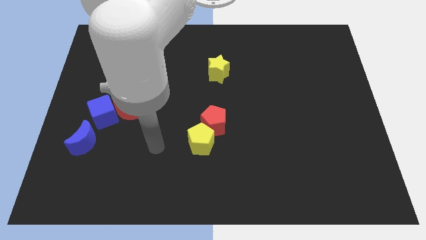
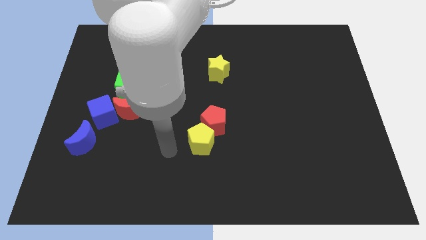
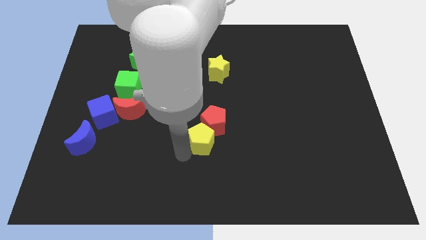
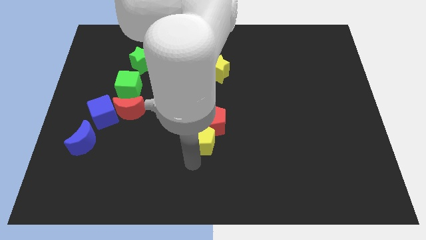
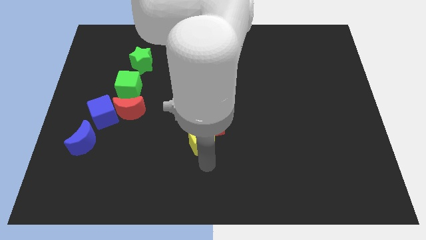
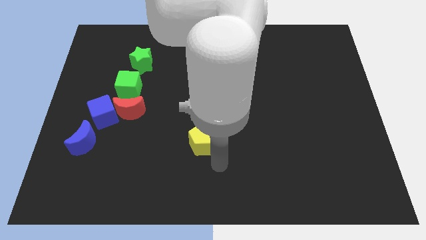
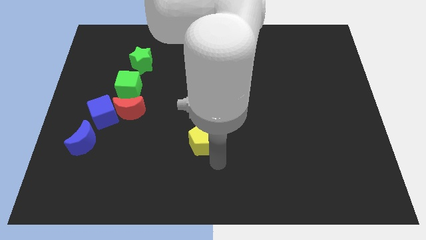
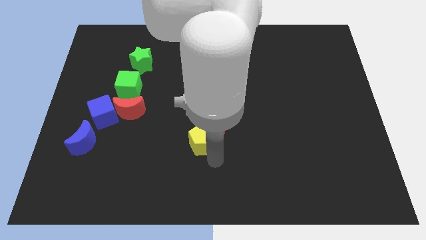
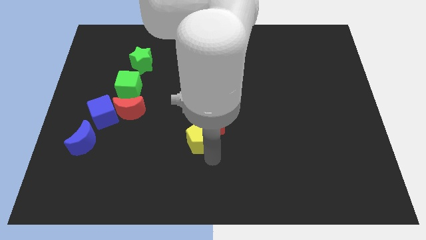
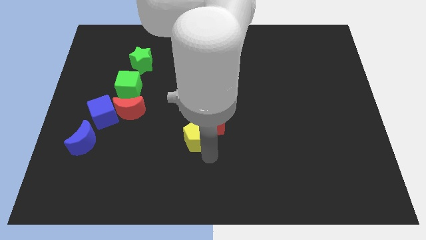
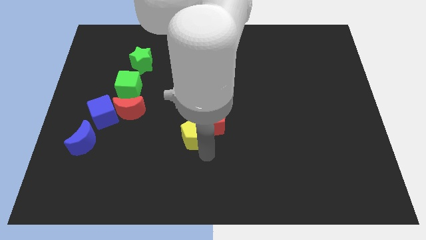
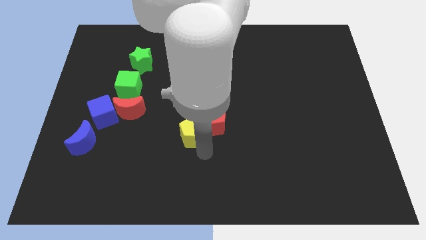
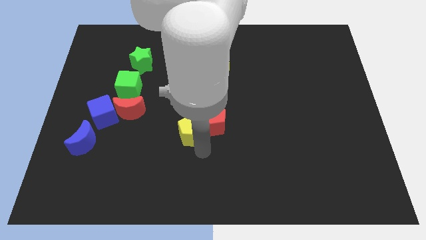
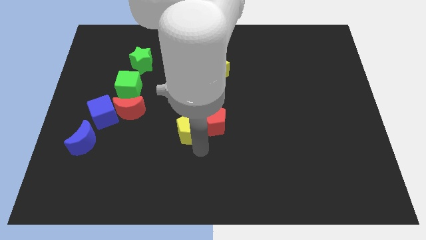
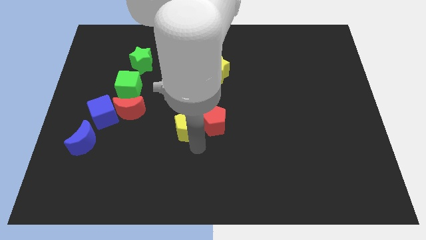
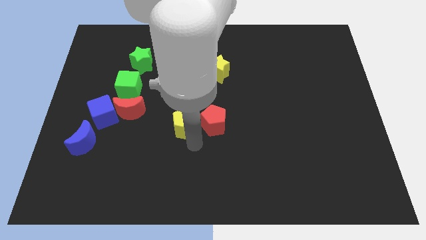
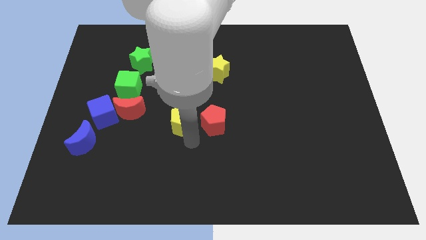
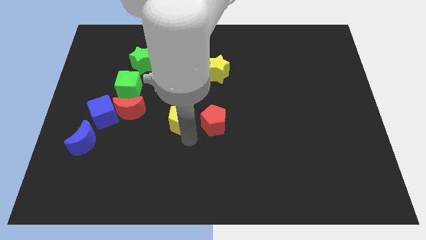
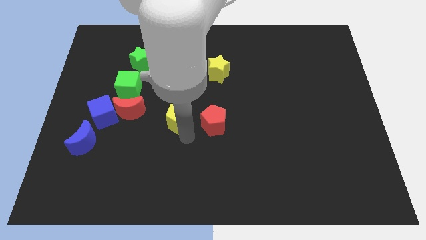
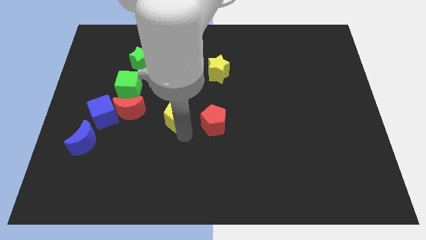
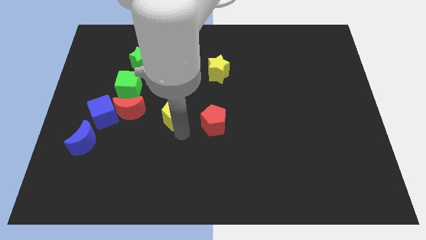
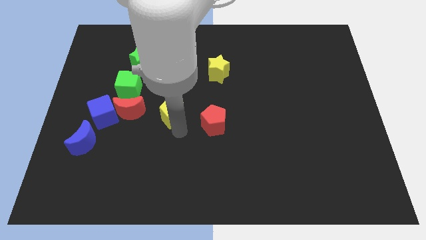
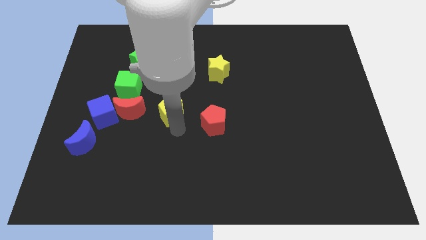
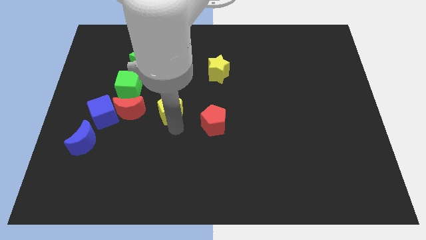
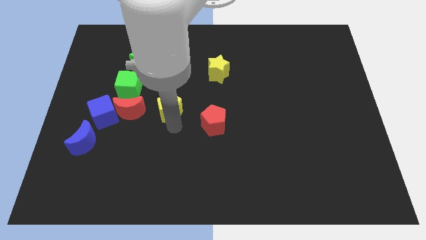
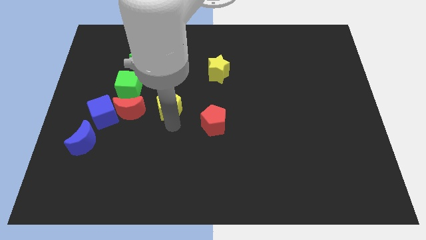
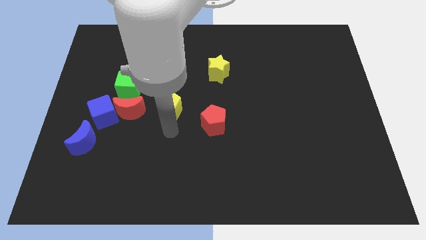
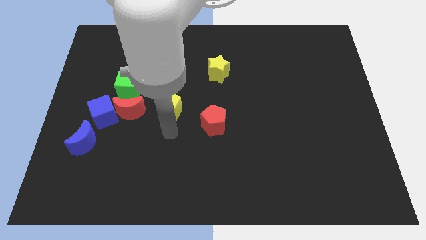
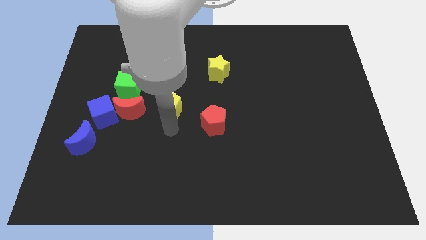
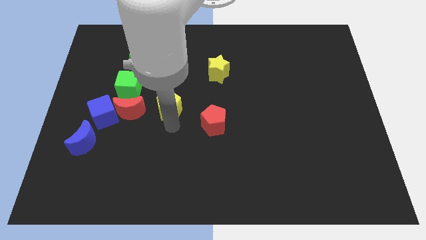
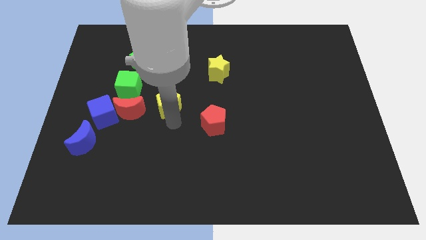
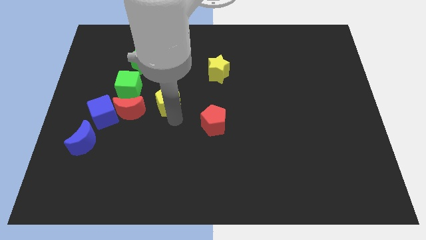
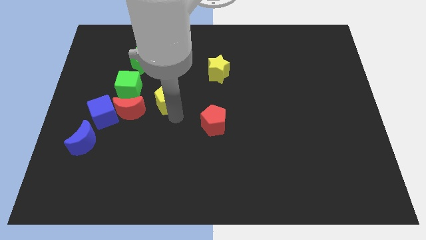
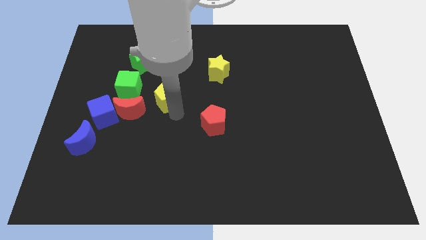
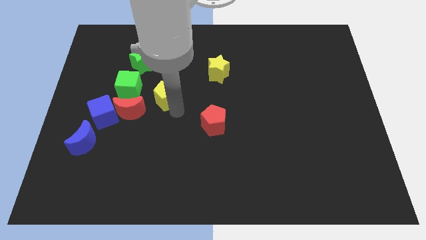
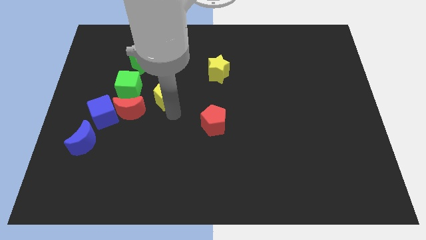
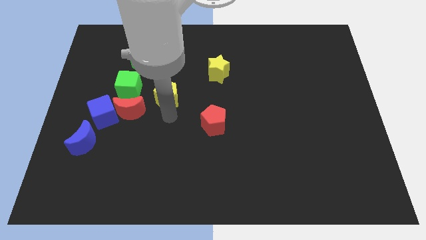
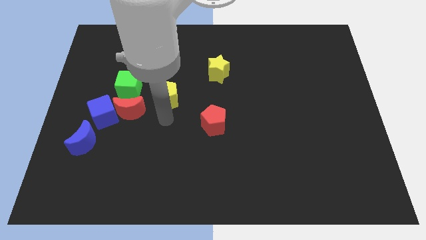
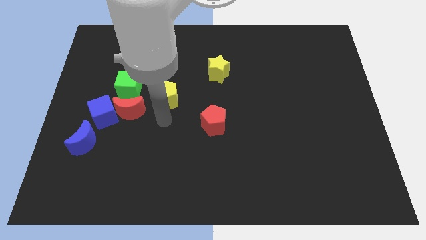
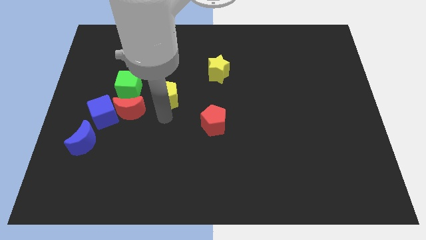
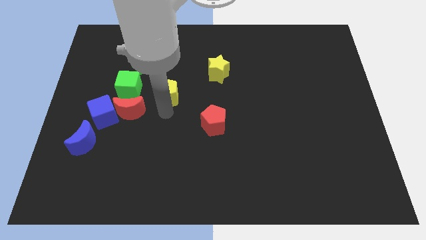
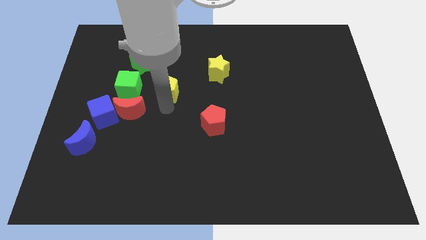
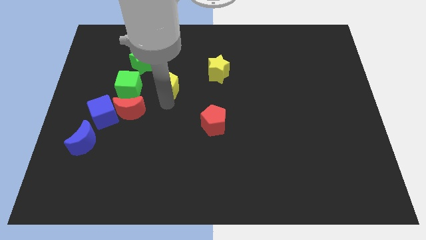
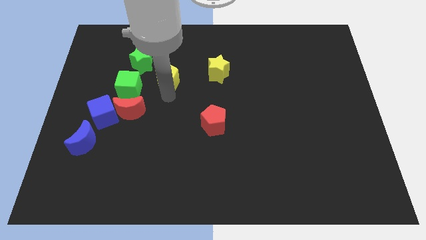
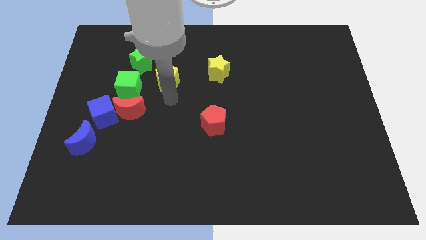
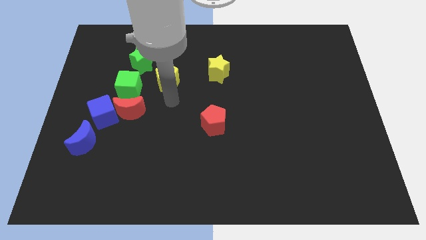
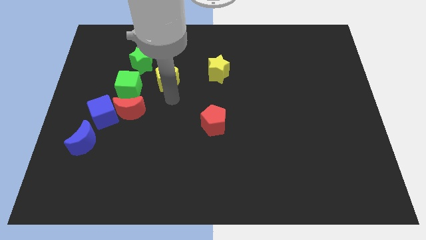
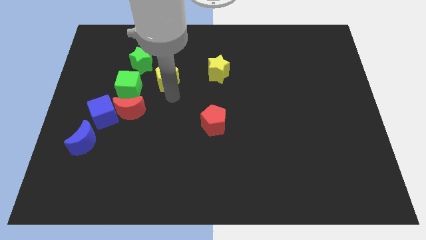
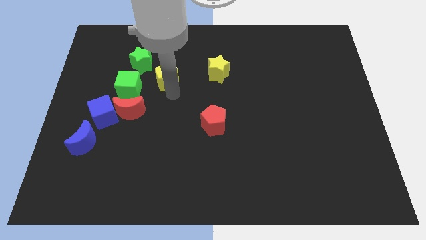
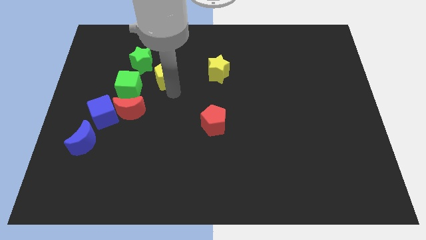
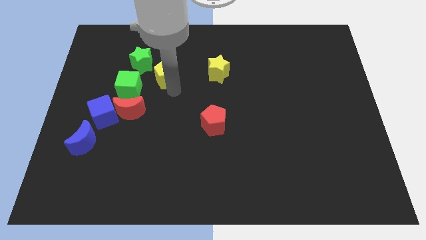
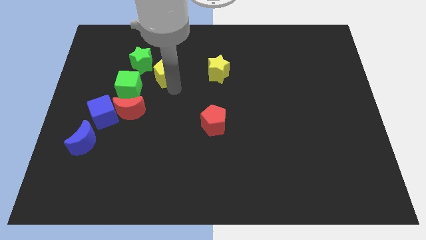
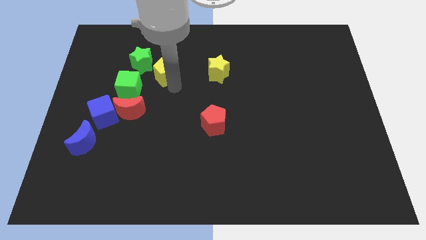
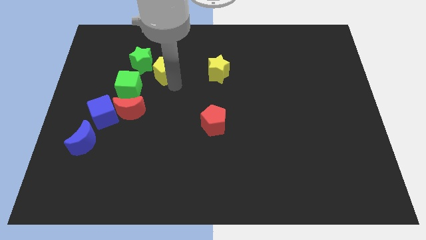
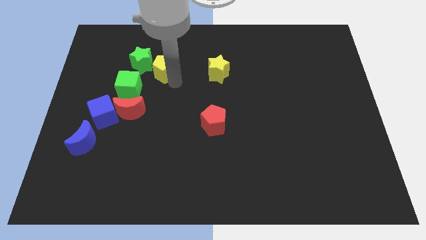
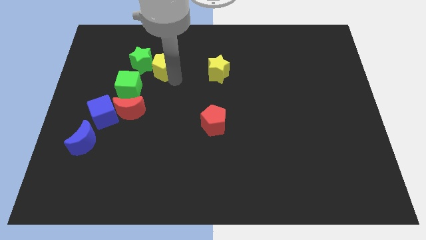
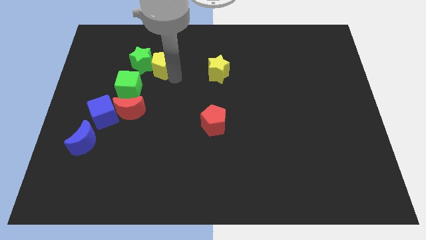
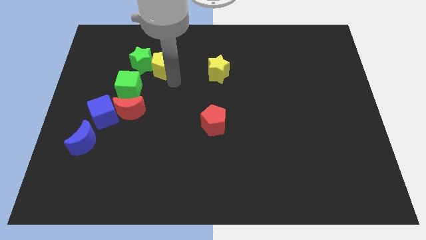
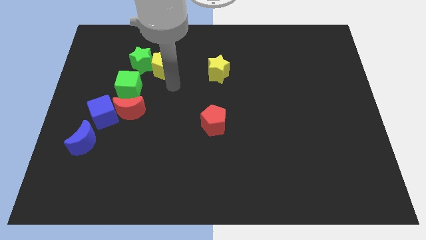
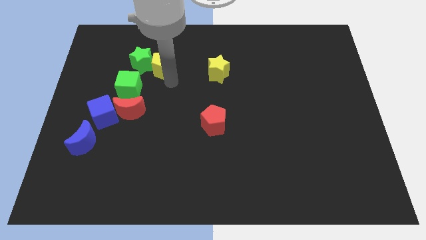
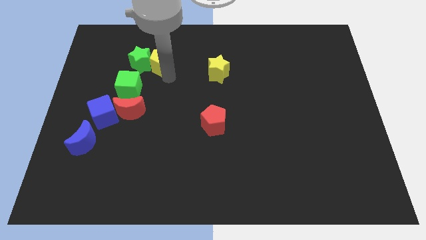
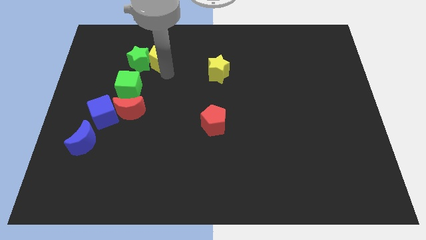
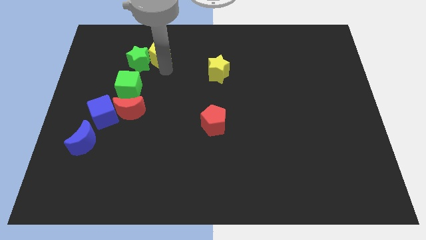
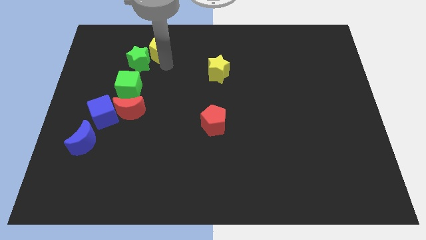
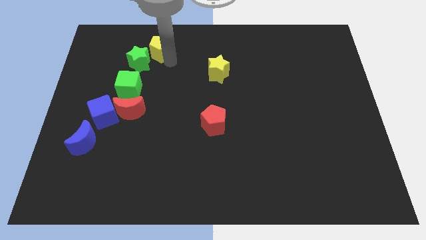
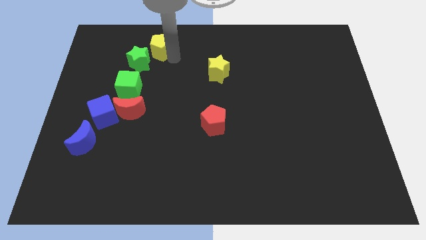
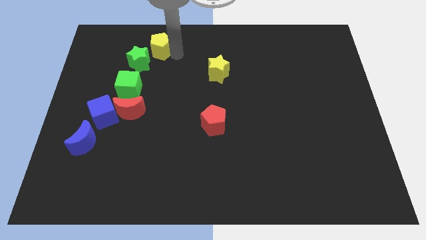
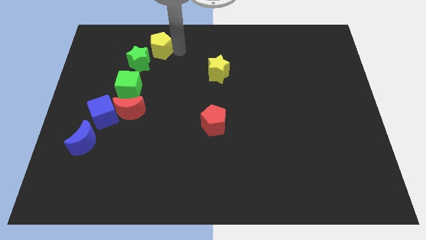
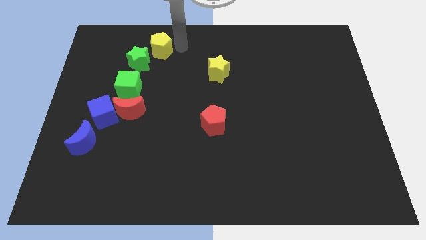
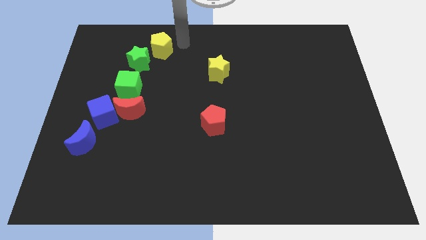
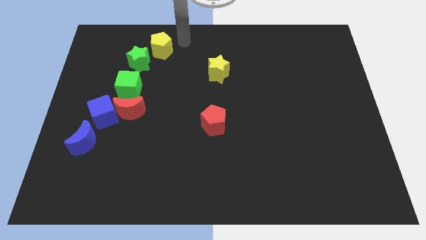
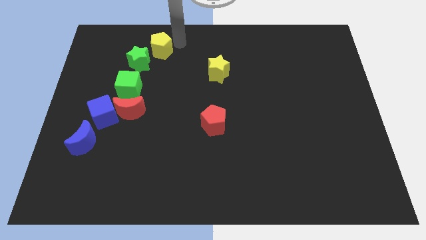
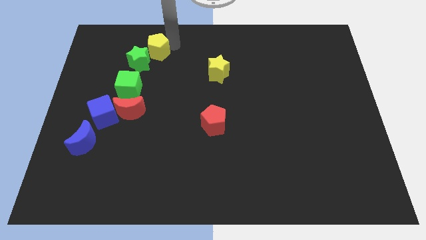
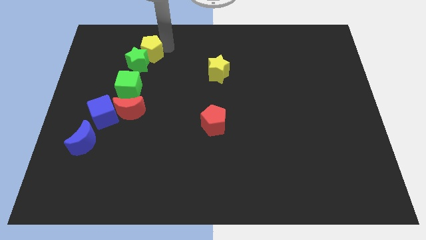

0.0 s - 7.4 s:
slide the yellow pentagon to the top of the green cube

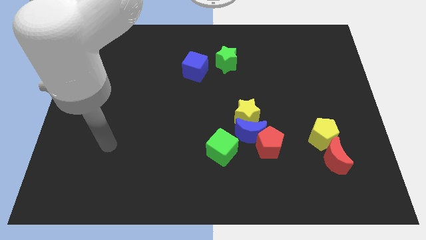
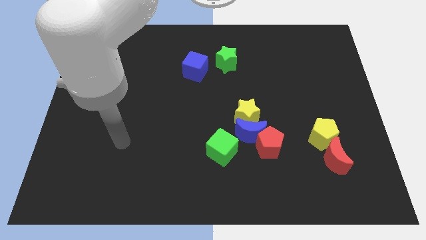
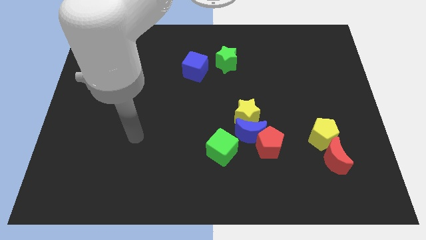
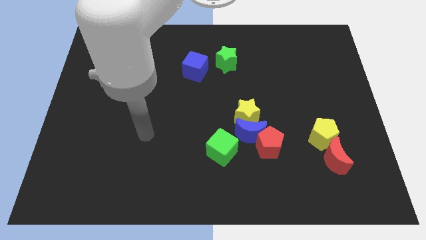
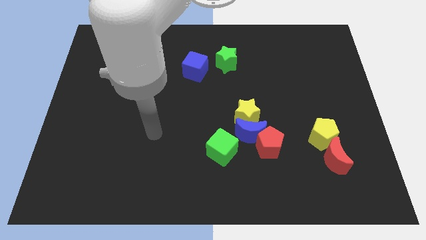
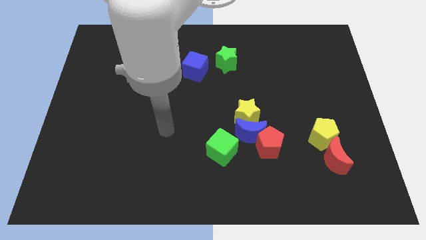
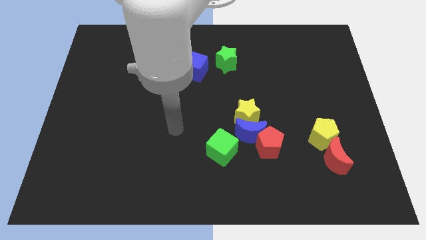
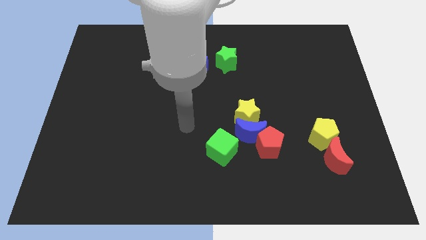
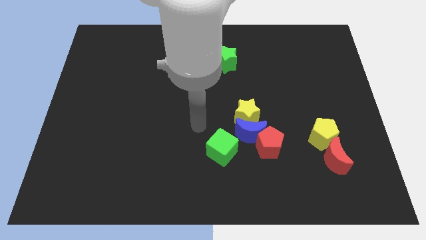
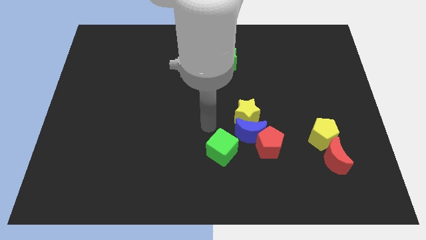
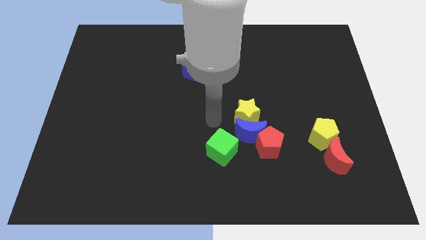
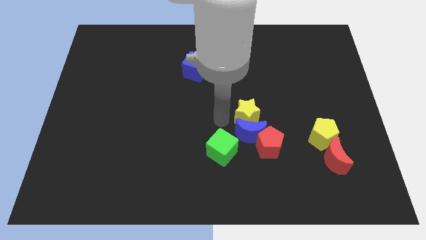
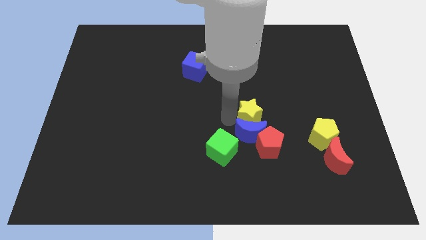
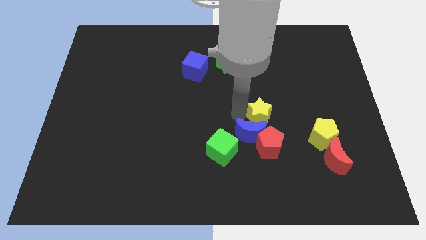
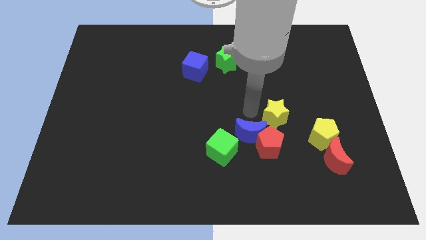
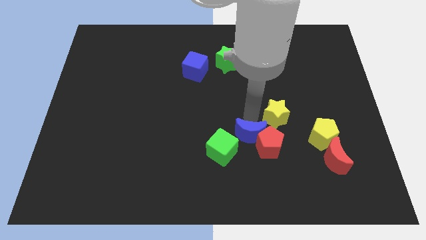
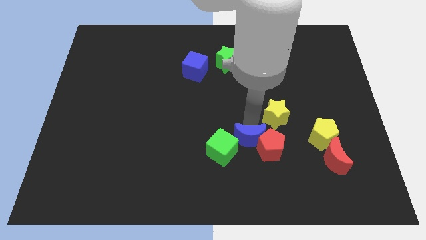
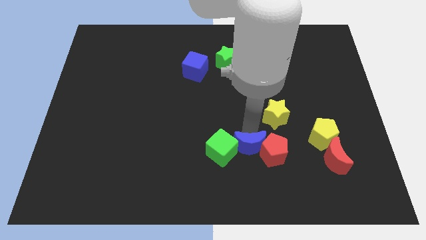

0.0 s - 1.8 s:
move the blue moon to the bottom left side of the red pentagon
